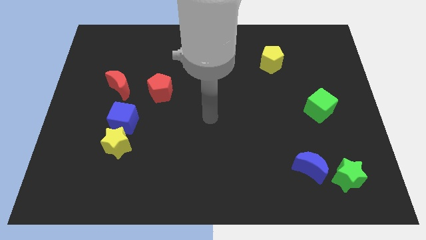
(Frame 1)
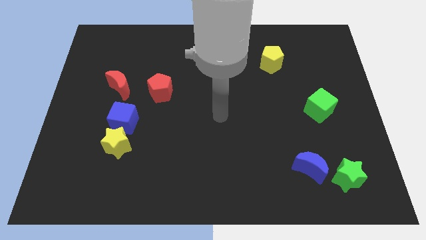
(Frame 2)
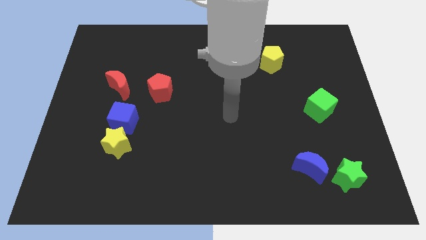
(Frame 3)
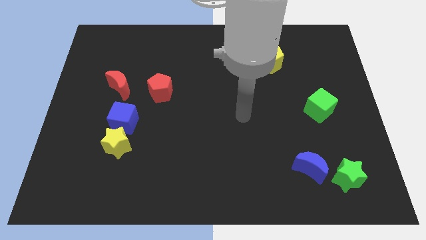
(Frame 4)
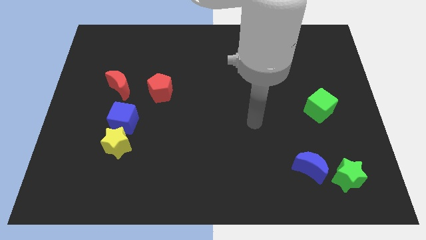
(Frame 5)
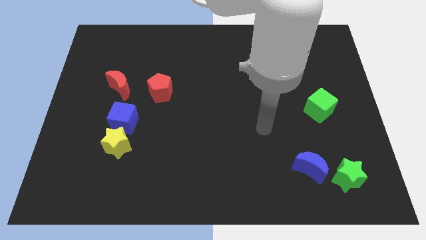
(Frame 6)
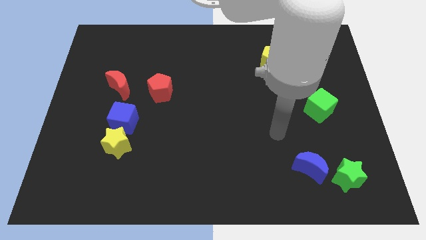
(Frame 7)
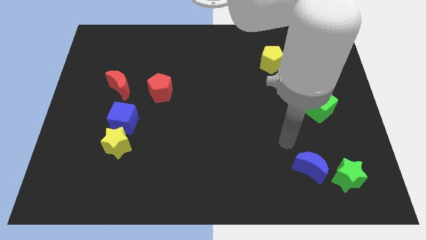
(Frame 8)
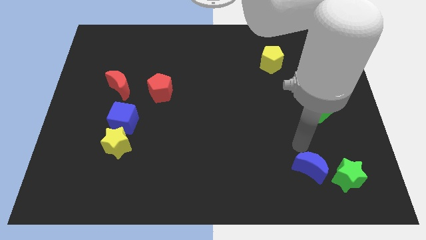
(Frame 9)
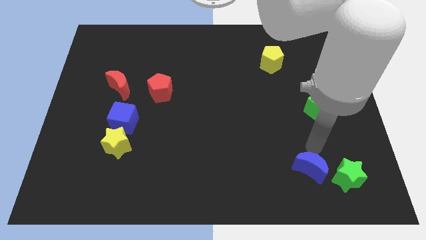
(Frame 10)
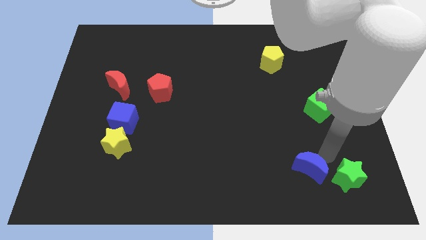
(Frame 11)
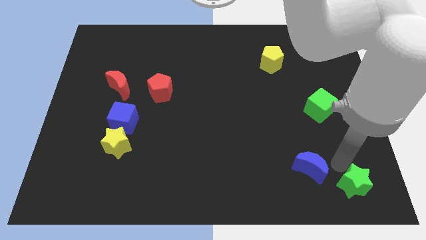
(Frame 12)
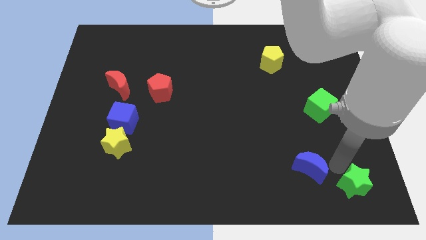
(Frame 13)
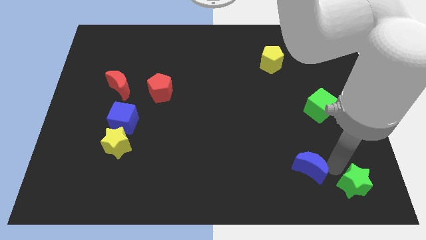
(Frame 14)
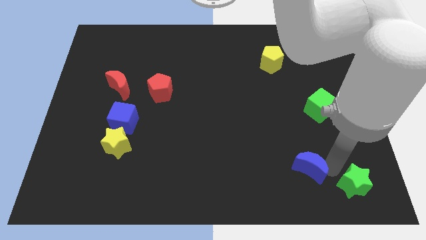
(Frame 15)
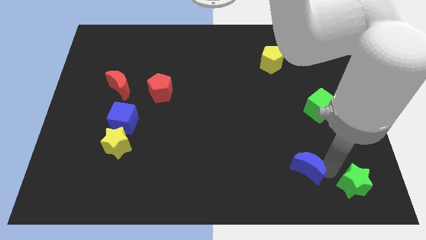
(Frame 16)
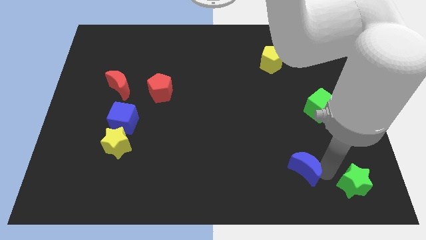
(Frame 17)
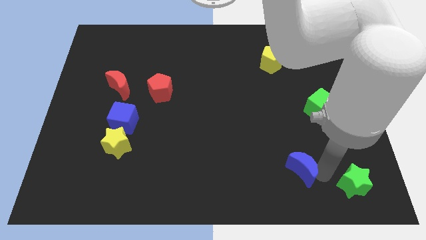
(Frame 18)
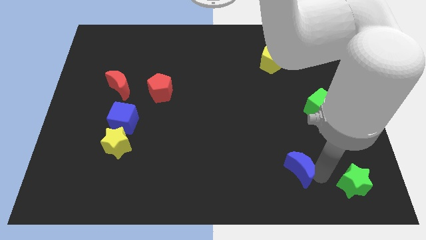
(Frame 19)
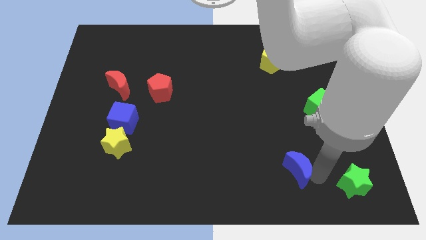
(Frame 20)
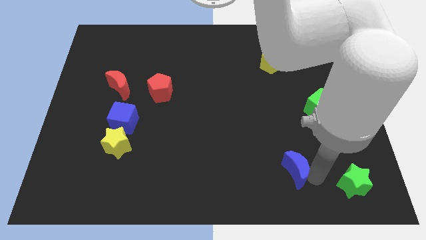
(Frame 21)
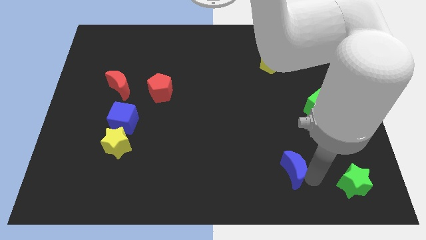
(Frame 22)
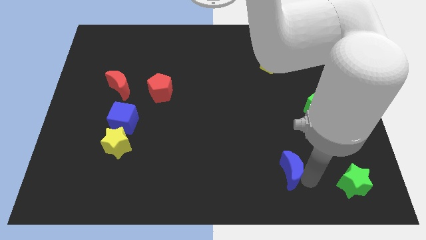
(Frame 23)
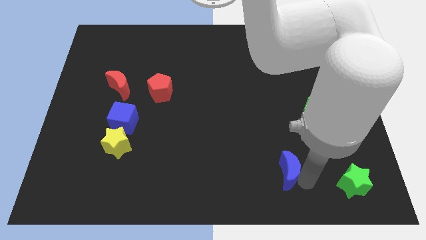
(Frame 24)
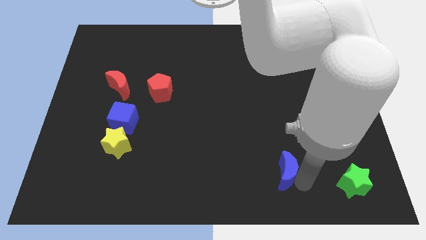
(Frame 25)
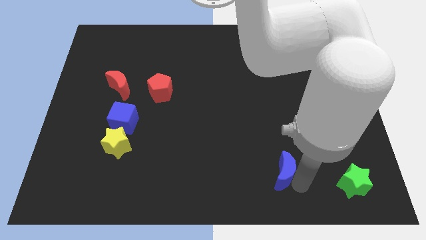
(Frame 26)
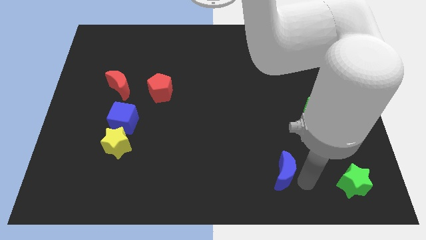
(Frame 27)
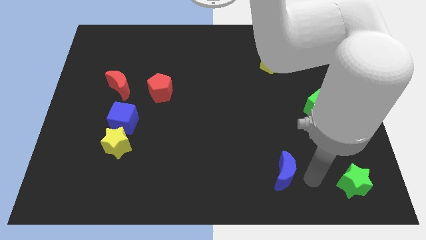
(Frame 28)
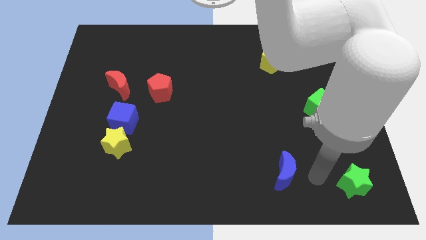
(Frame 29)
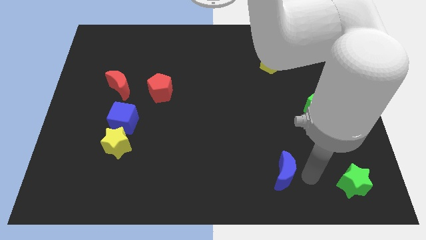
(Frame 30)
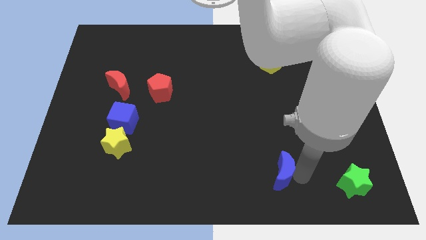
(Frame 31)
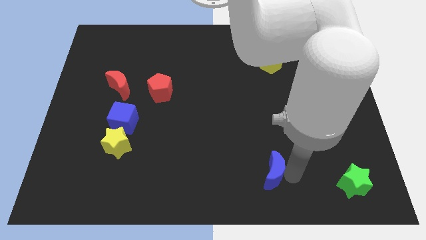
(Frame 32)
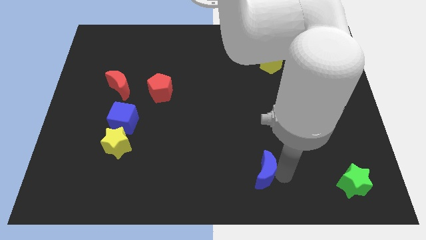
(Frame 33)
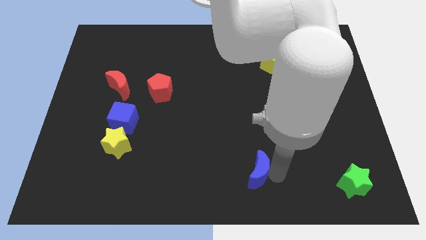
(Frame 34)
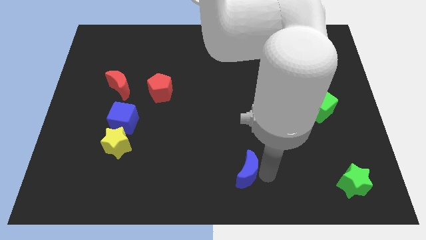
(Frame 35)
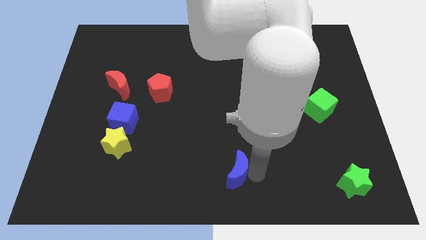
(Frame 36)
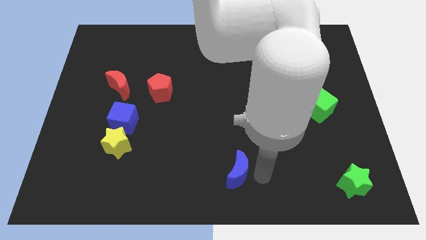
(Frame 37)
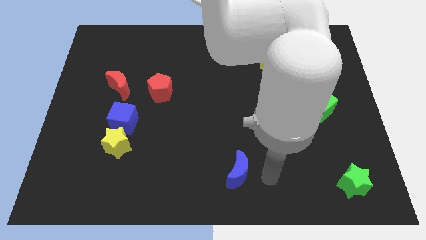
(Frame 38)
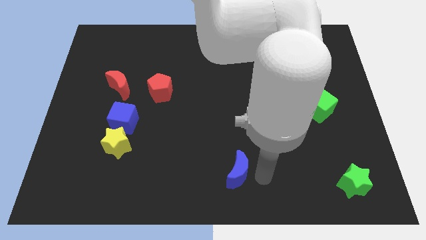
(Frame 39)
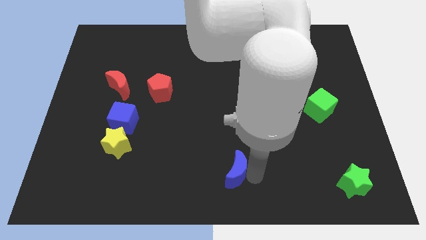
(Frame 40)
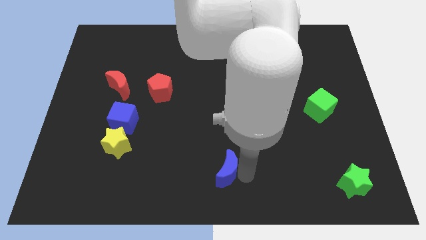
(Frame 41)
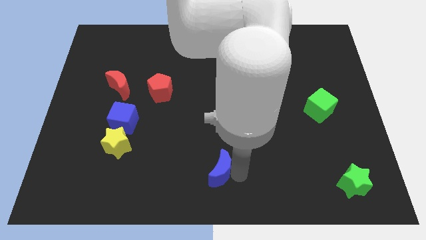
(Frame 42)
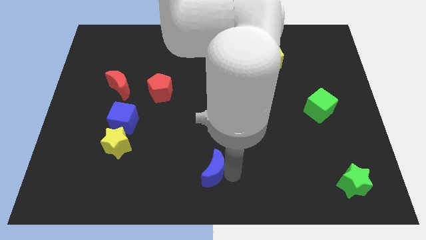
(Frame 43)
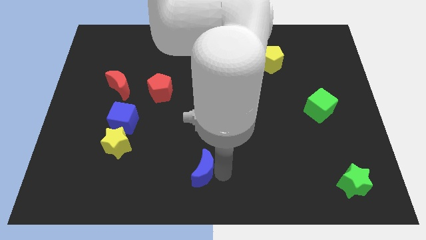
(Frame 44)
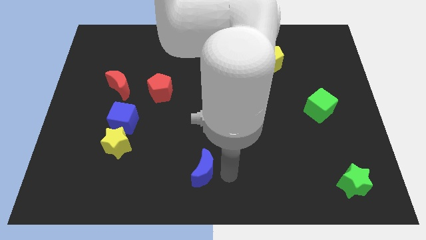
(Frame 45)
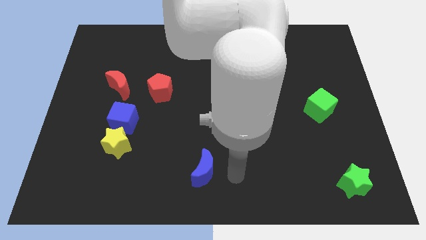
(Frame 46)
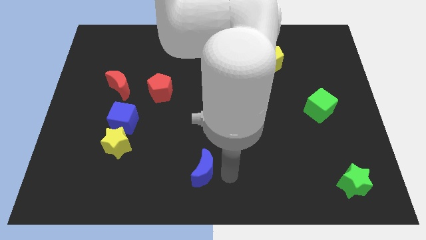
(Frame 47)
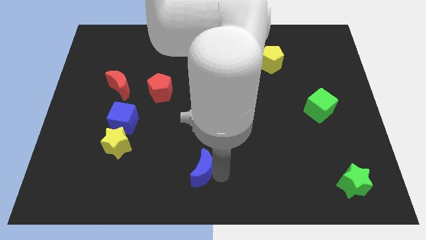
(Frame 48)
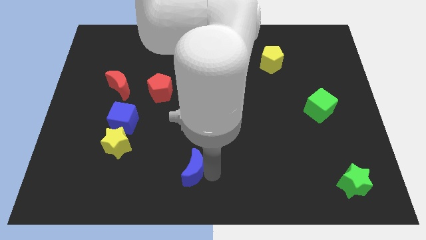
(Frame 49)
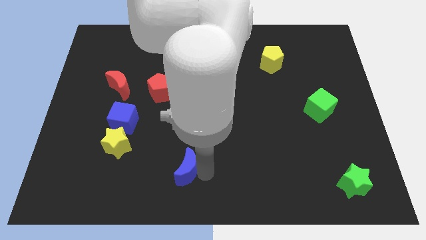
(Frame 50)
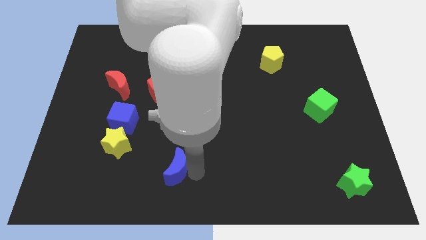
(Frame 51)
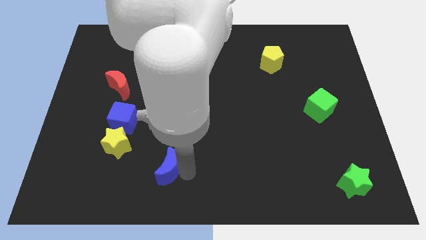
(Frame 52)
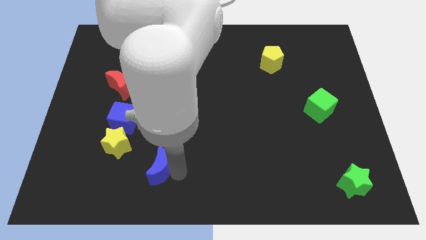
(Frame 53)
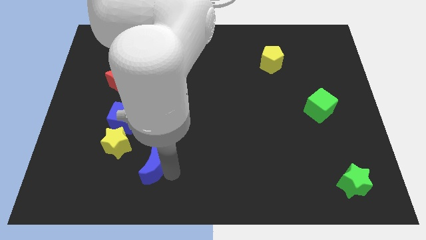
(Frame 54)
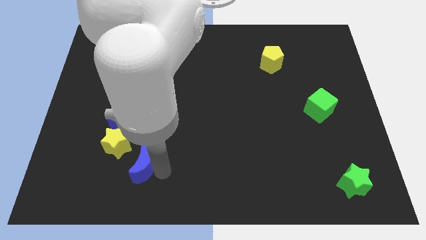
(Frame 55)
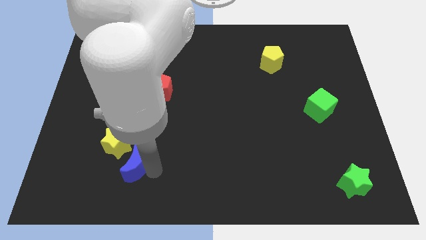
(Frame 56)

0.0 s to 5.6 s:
put the blue moon to the bottom of the blue cube
